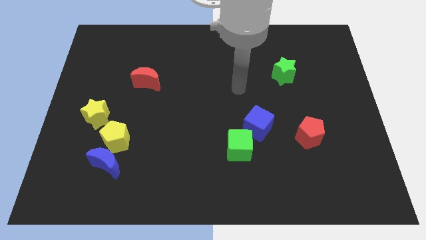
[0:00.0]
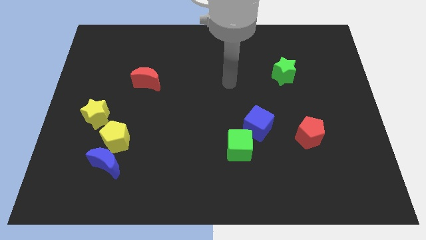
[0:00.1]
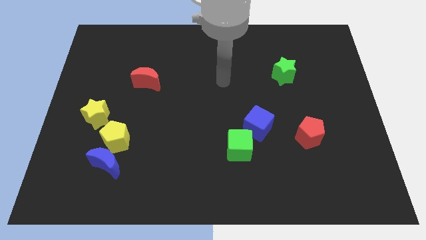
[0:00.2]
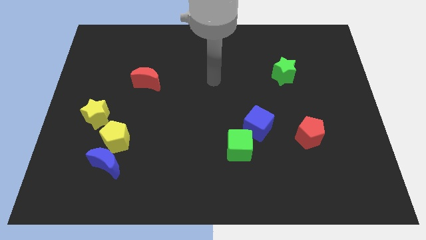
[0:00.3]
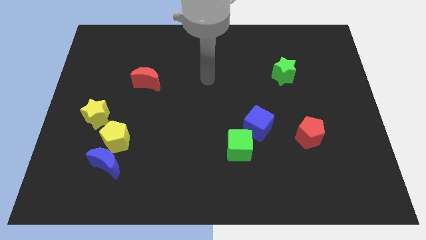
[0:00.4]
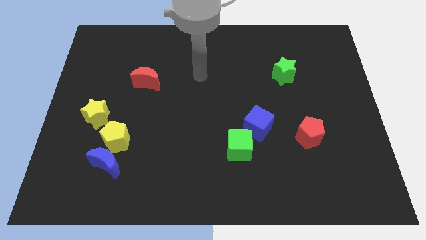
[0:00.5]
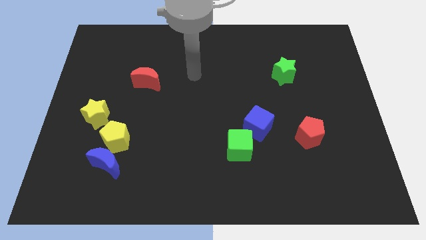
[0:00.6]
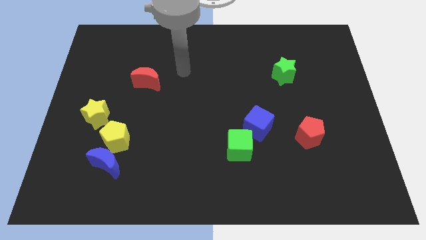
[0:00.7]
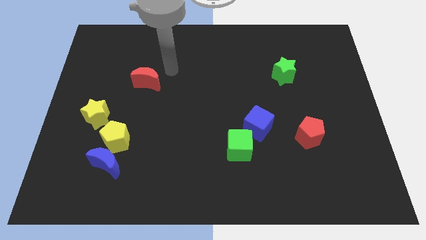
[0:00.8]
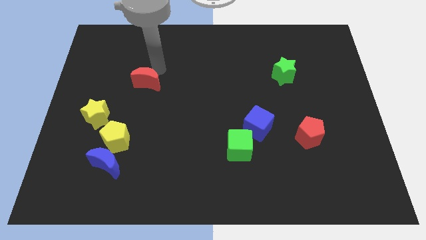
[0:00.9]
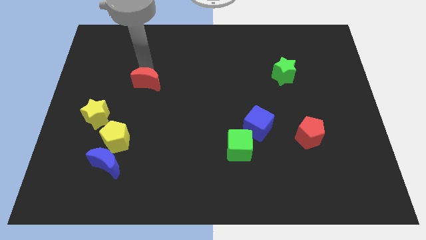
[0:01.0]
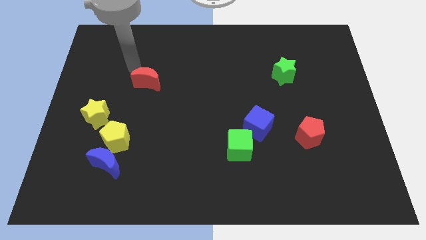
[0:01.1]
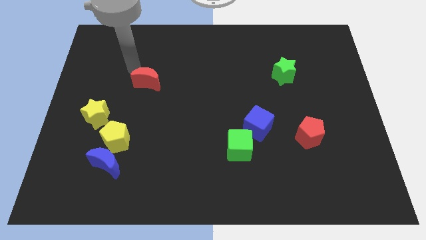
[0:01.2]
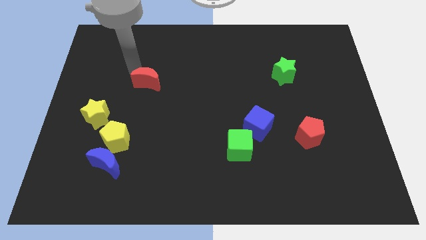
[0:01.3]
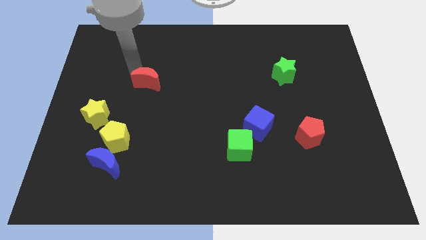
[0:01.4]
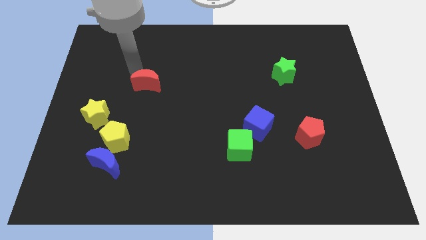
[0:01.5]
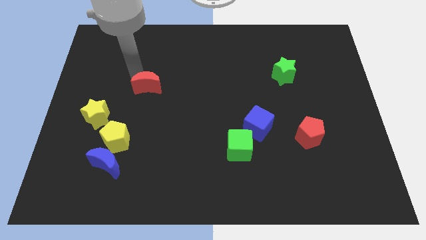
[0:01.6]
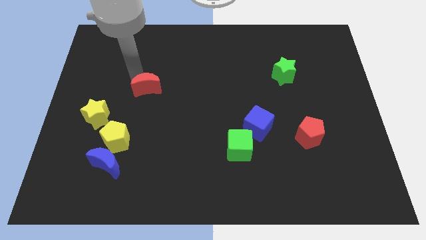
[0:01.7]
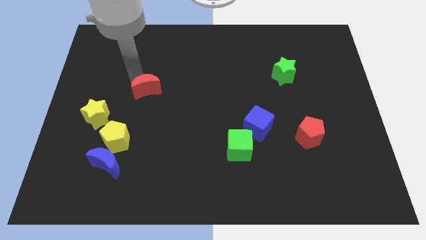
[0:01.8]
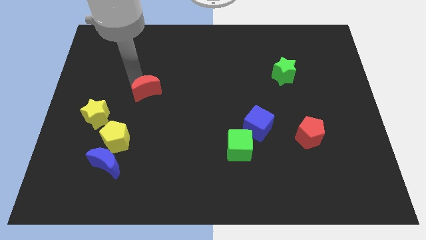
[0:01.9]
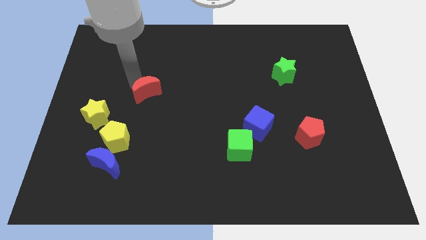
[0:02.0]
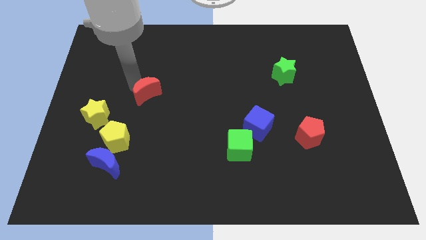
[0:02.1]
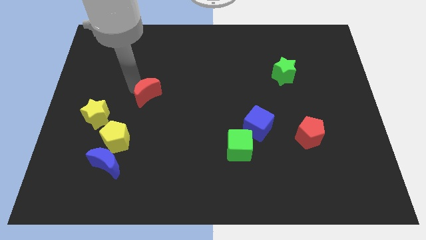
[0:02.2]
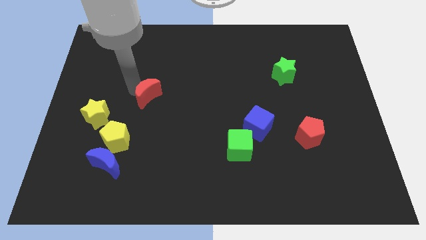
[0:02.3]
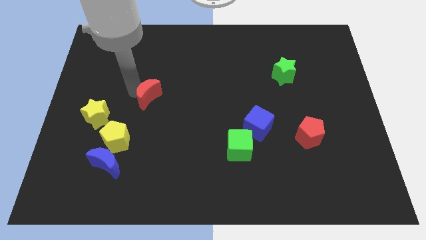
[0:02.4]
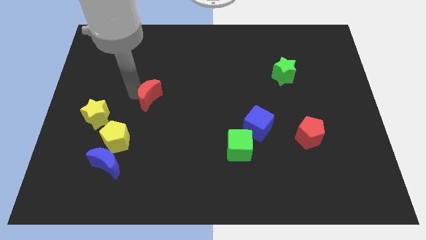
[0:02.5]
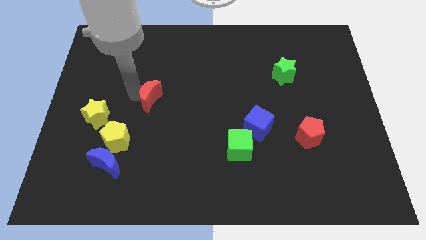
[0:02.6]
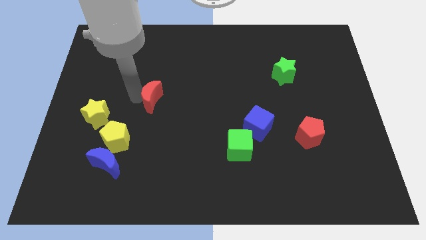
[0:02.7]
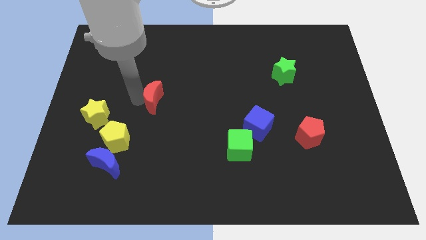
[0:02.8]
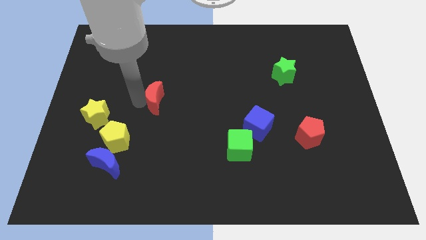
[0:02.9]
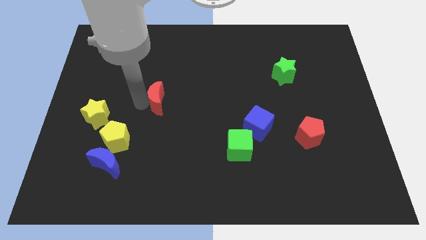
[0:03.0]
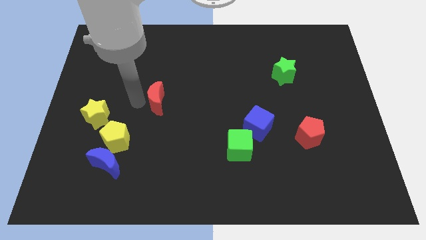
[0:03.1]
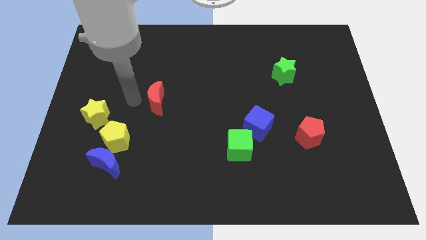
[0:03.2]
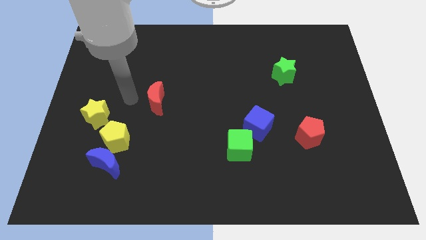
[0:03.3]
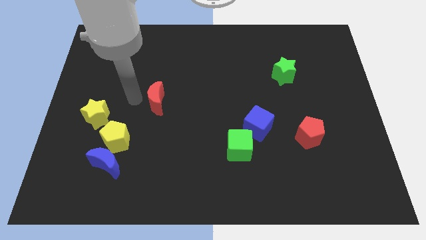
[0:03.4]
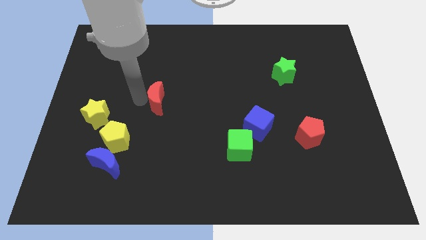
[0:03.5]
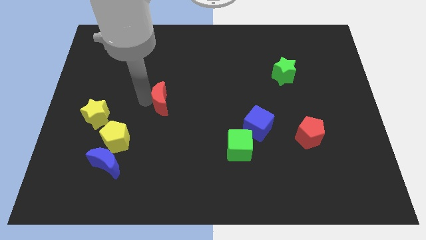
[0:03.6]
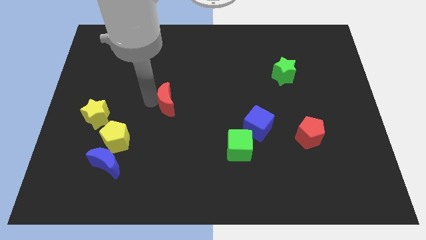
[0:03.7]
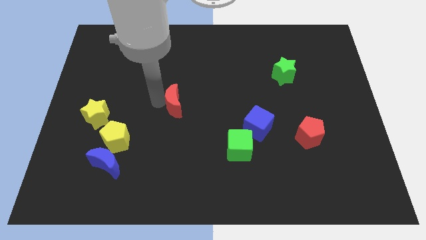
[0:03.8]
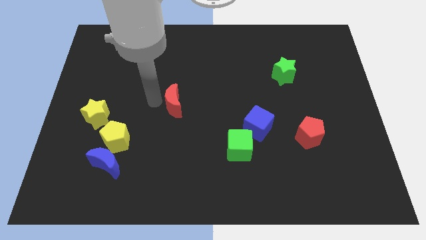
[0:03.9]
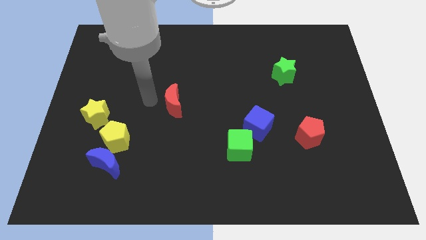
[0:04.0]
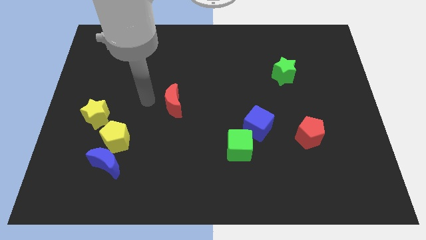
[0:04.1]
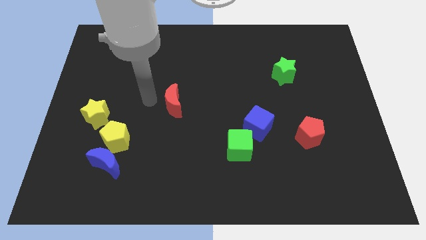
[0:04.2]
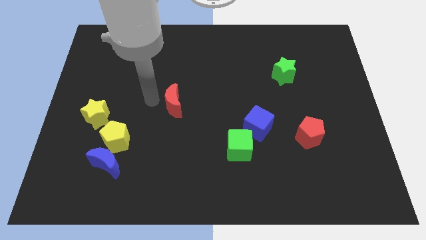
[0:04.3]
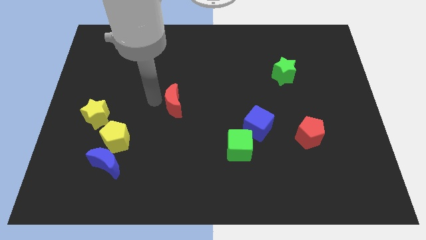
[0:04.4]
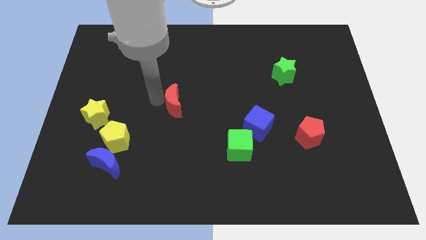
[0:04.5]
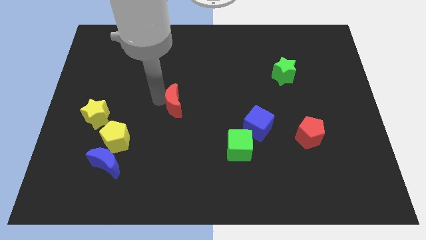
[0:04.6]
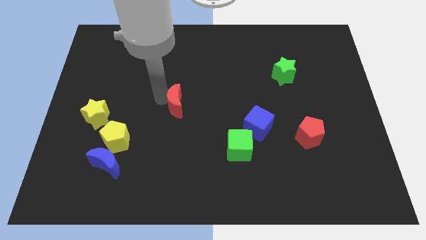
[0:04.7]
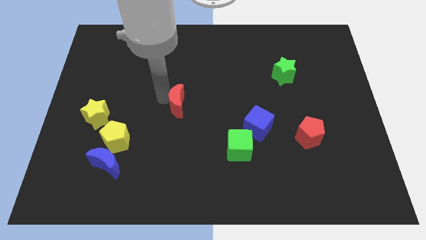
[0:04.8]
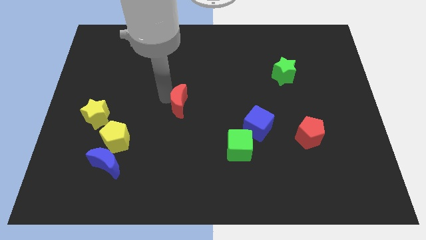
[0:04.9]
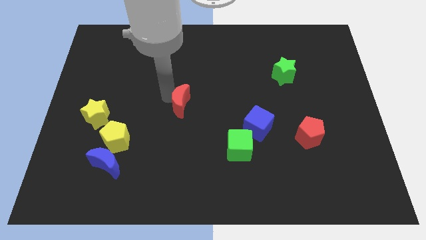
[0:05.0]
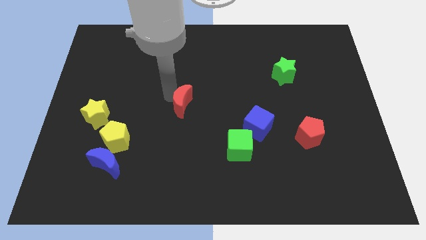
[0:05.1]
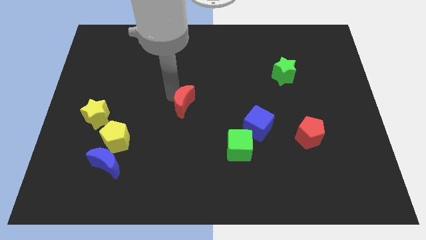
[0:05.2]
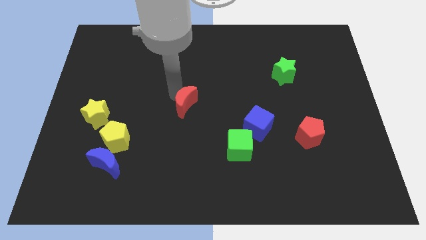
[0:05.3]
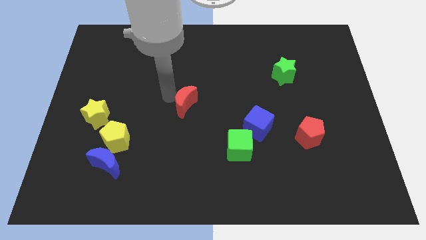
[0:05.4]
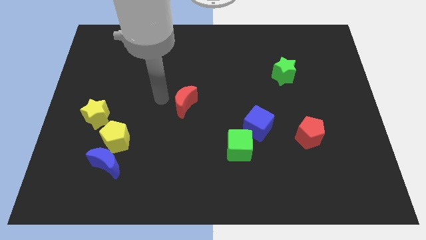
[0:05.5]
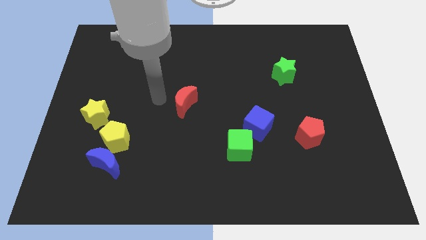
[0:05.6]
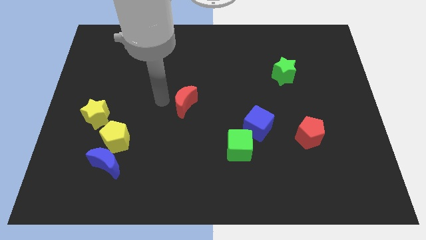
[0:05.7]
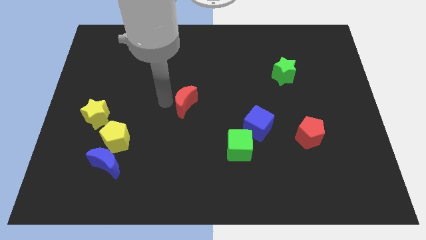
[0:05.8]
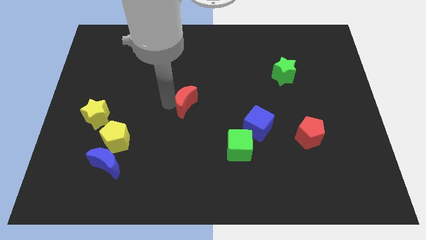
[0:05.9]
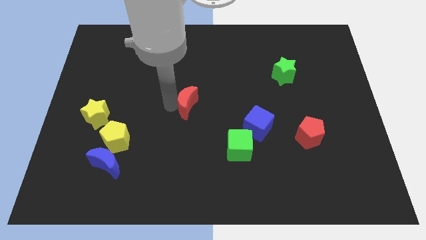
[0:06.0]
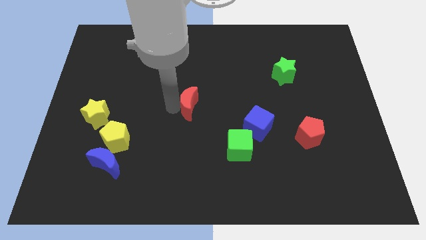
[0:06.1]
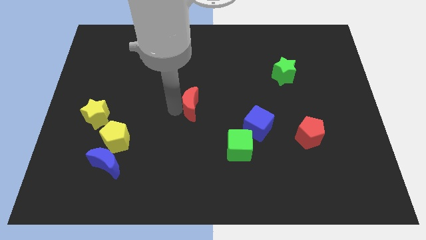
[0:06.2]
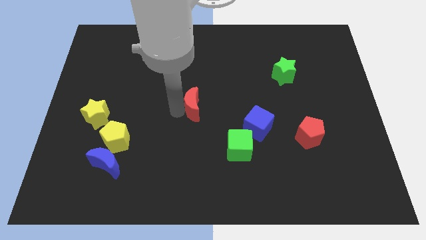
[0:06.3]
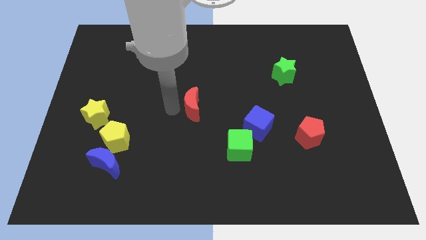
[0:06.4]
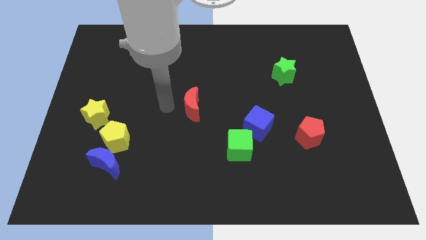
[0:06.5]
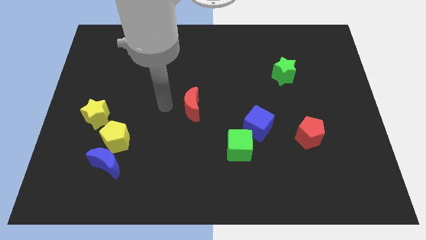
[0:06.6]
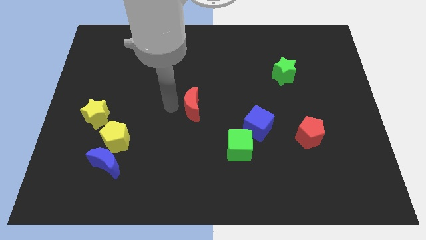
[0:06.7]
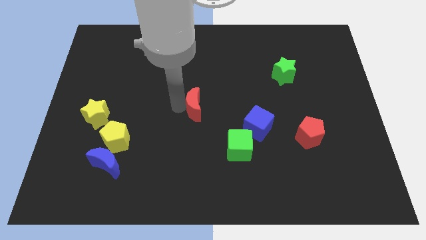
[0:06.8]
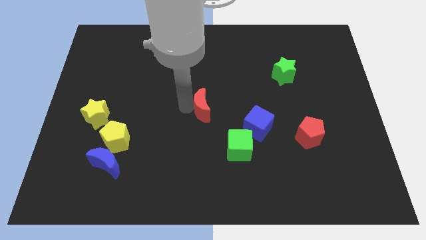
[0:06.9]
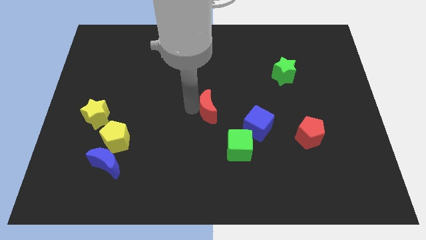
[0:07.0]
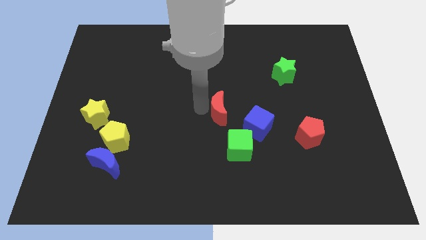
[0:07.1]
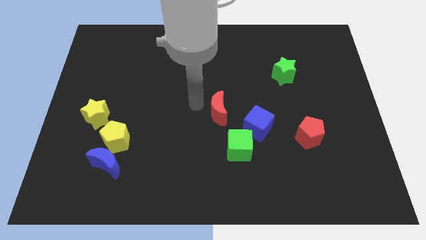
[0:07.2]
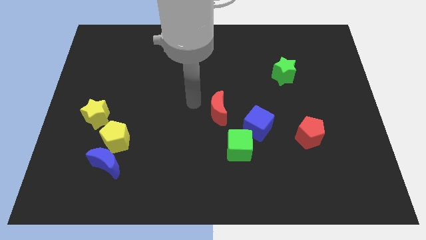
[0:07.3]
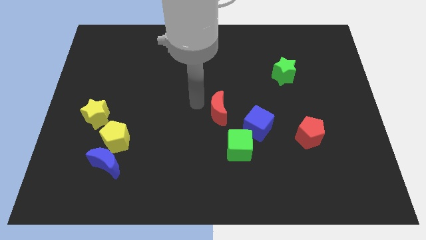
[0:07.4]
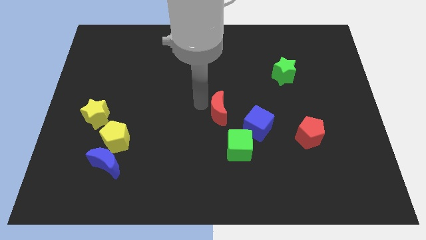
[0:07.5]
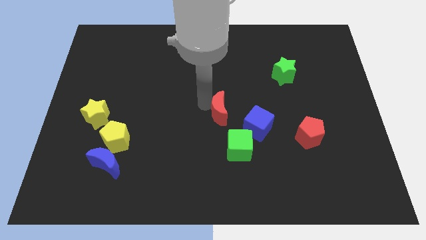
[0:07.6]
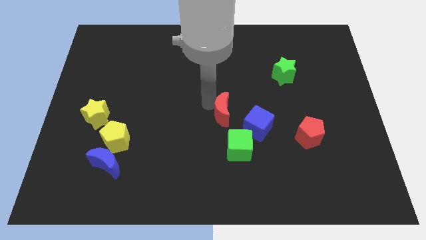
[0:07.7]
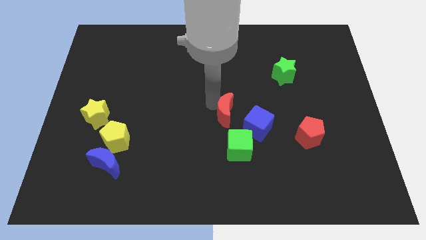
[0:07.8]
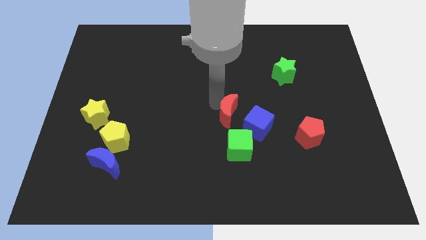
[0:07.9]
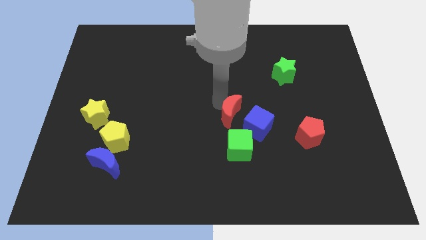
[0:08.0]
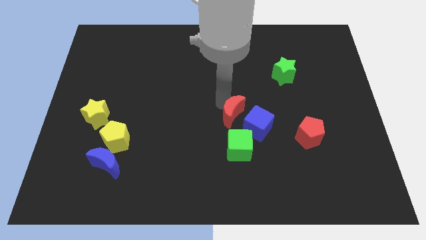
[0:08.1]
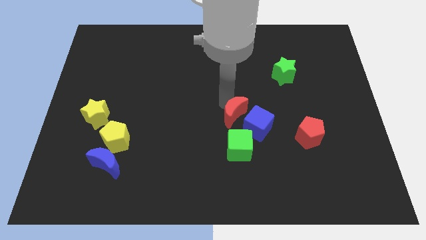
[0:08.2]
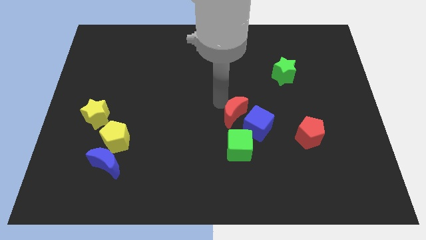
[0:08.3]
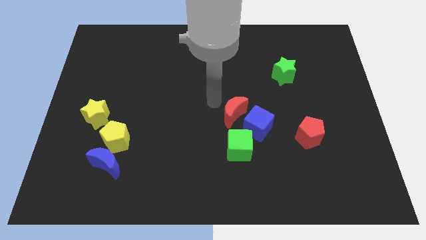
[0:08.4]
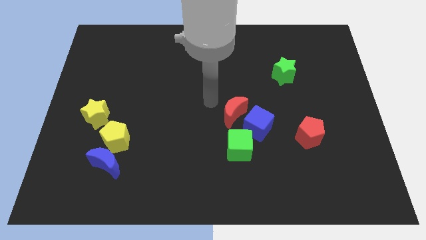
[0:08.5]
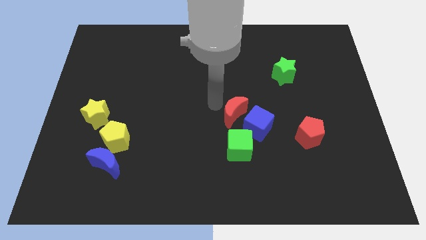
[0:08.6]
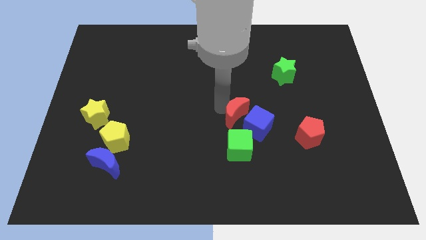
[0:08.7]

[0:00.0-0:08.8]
put the red moon close to the blue cube
